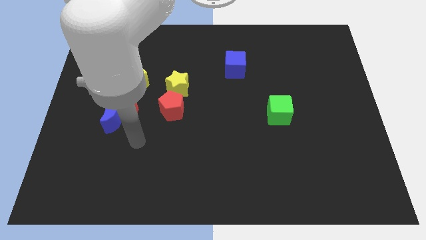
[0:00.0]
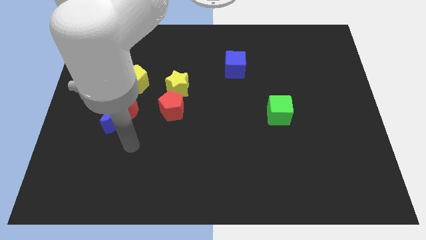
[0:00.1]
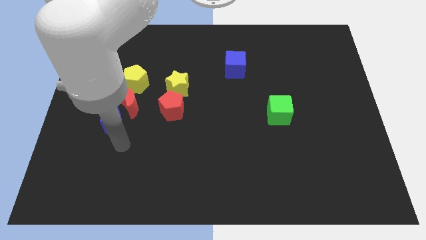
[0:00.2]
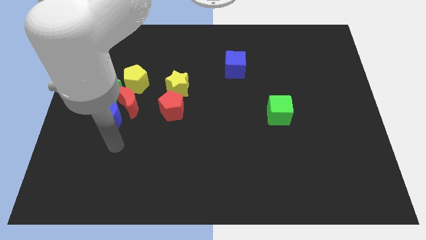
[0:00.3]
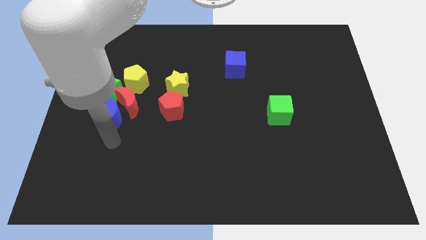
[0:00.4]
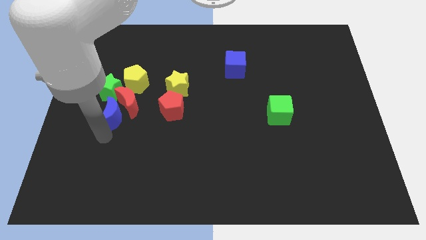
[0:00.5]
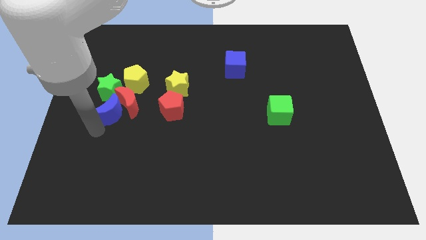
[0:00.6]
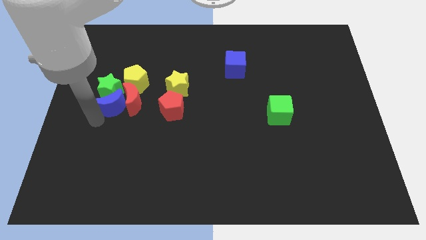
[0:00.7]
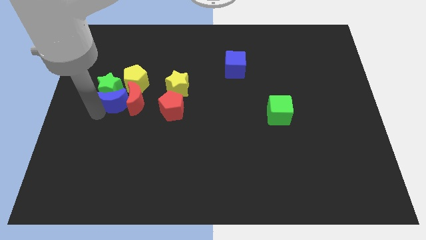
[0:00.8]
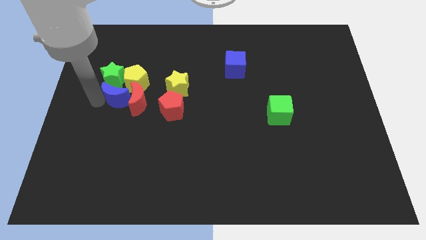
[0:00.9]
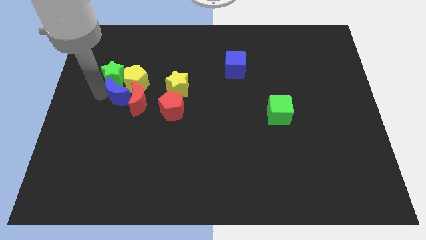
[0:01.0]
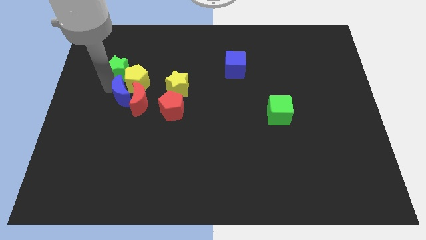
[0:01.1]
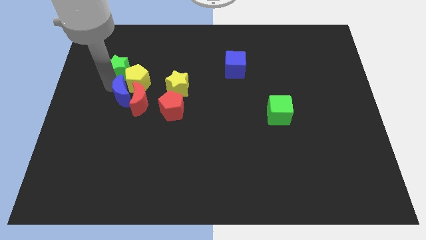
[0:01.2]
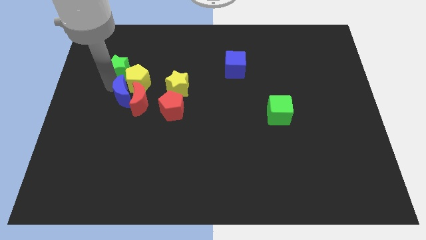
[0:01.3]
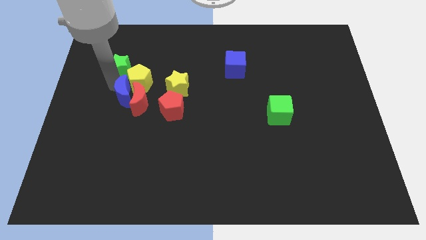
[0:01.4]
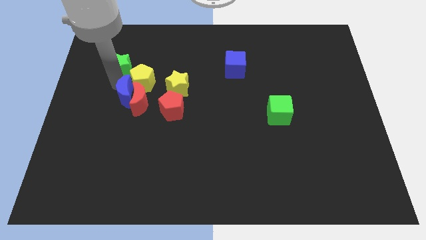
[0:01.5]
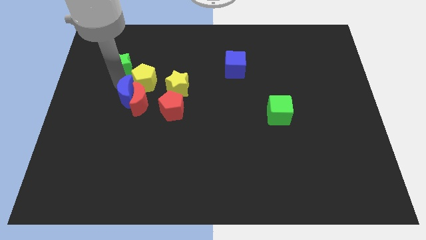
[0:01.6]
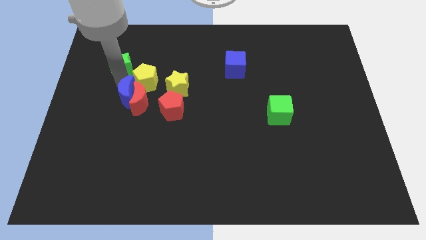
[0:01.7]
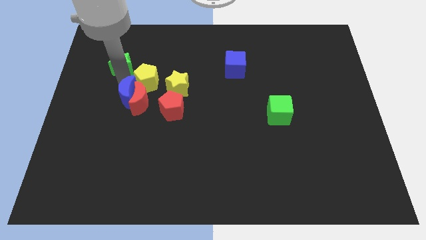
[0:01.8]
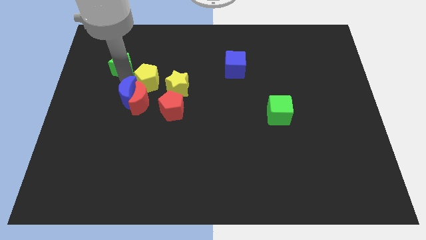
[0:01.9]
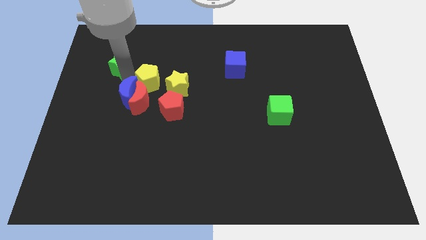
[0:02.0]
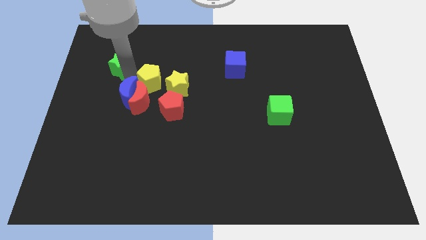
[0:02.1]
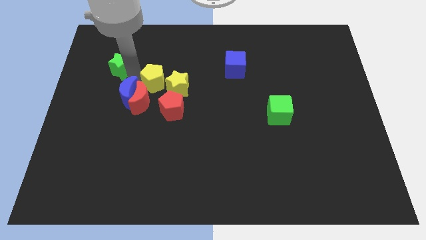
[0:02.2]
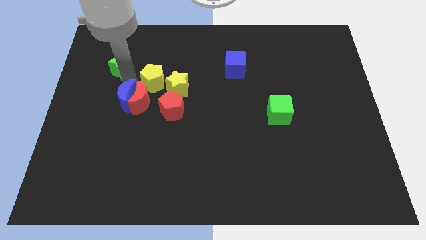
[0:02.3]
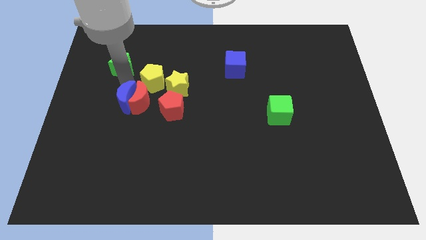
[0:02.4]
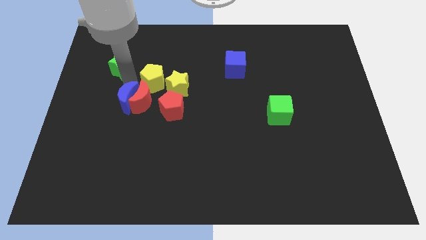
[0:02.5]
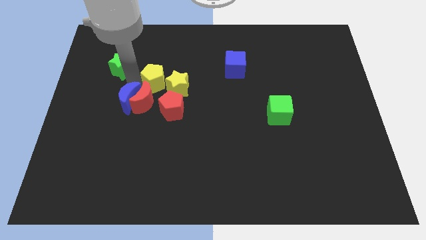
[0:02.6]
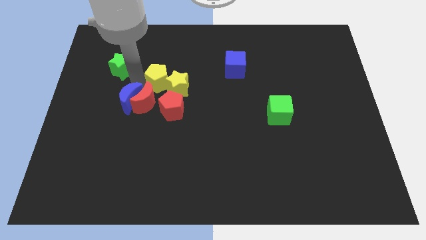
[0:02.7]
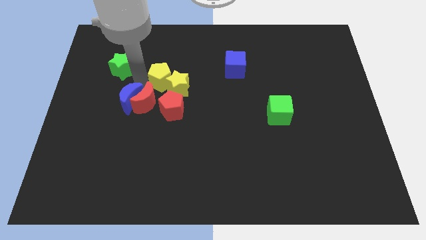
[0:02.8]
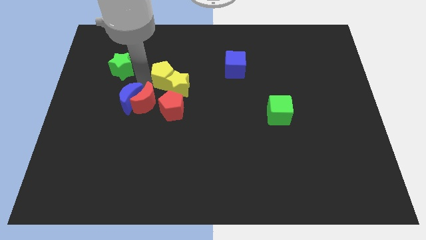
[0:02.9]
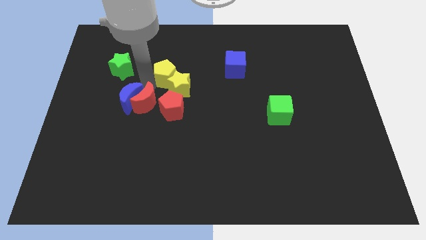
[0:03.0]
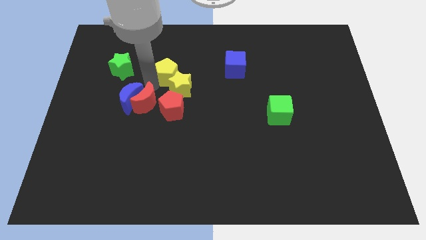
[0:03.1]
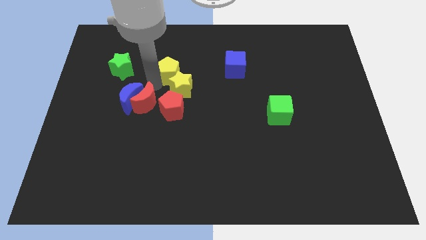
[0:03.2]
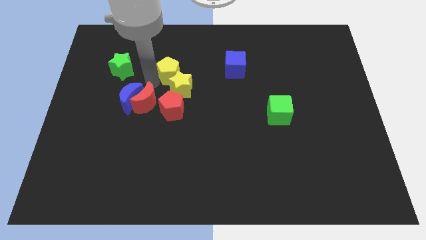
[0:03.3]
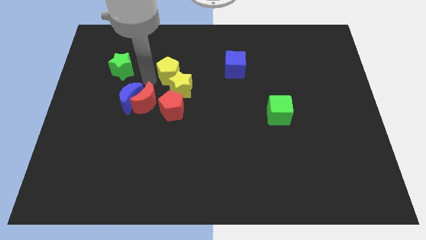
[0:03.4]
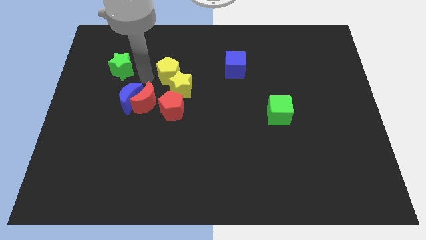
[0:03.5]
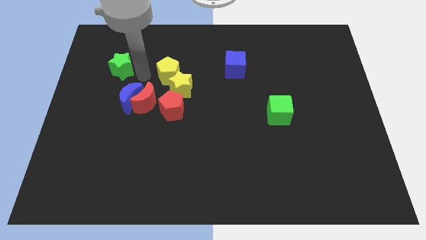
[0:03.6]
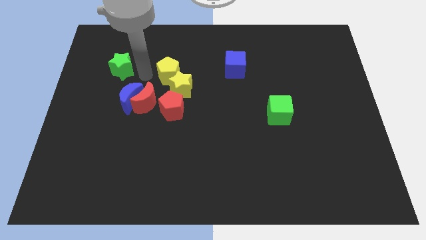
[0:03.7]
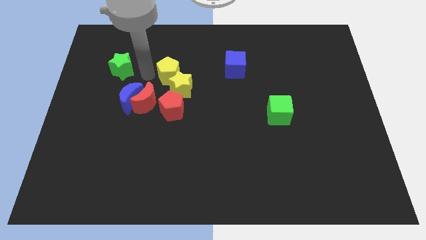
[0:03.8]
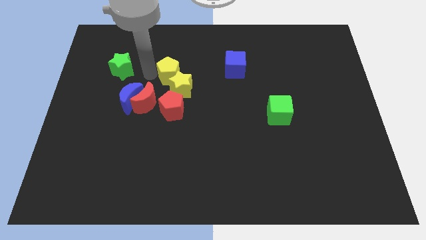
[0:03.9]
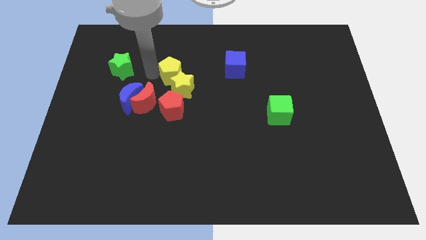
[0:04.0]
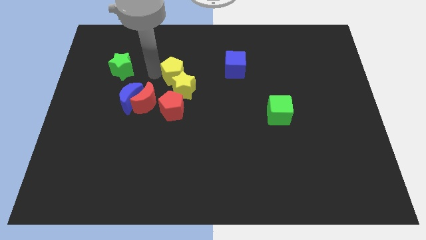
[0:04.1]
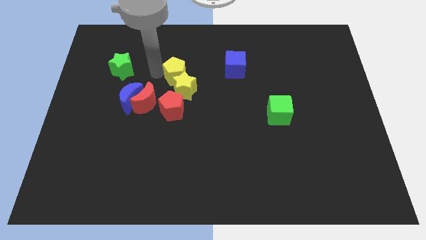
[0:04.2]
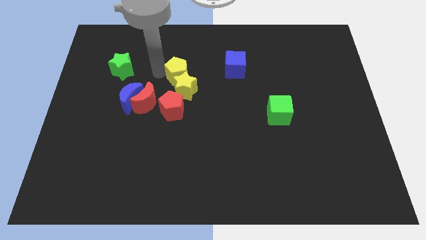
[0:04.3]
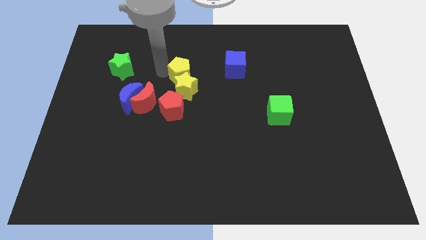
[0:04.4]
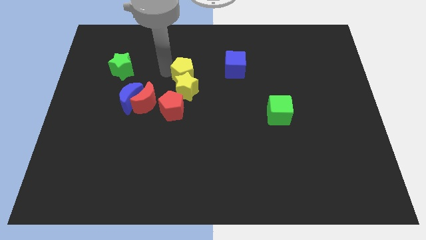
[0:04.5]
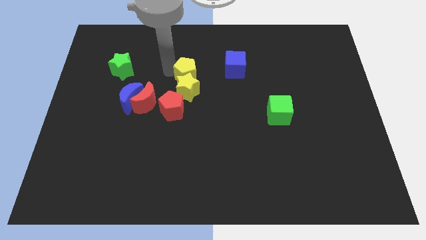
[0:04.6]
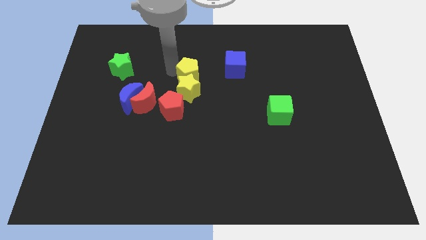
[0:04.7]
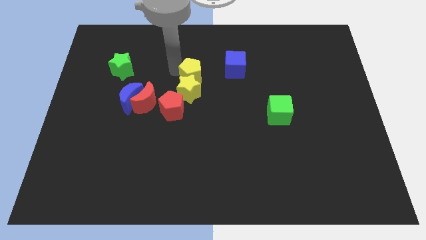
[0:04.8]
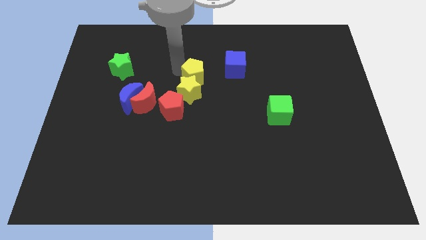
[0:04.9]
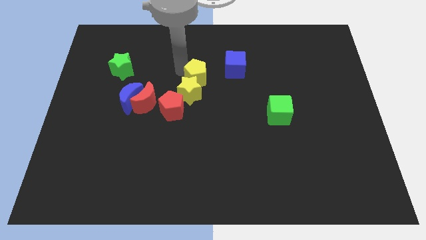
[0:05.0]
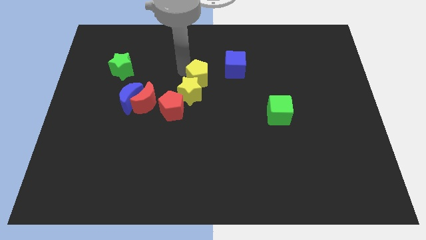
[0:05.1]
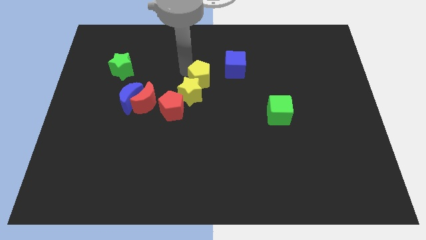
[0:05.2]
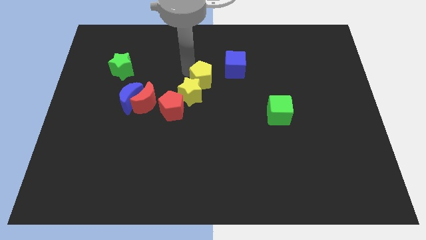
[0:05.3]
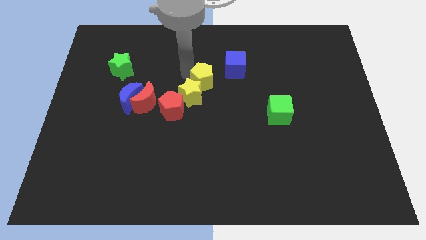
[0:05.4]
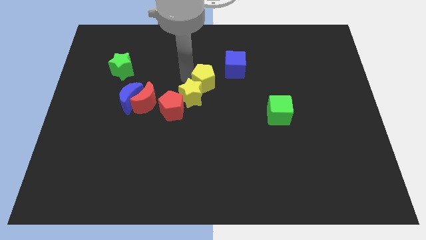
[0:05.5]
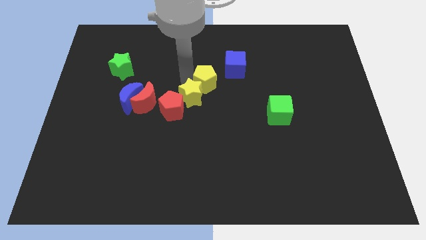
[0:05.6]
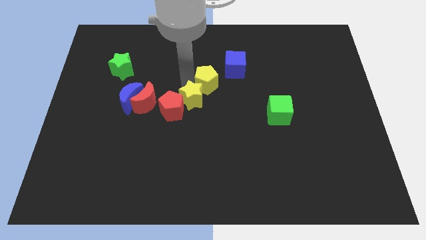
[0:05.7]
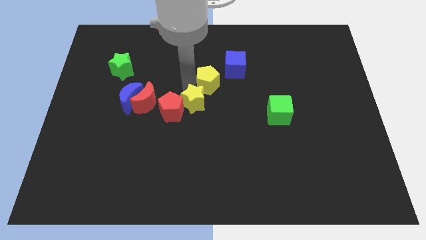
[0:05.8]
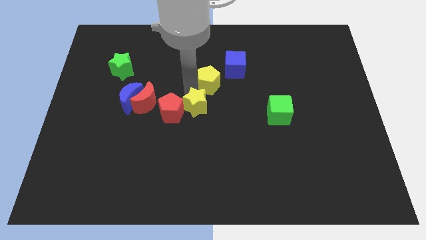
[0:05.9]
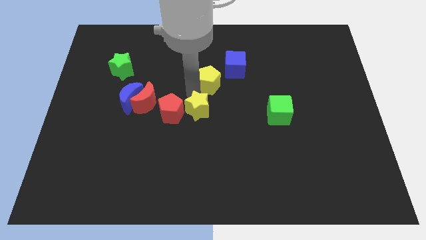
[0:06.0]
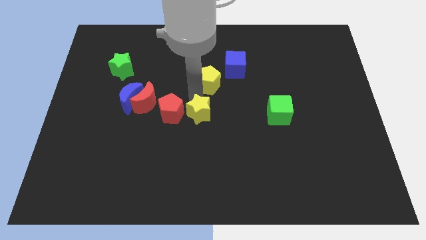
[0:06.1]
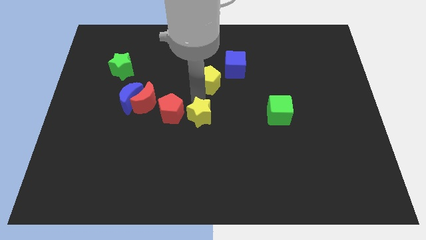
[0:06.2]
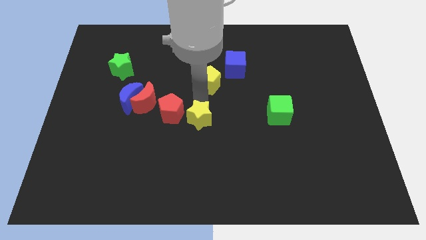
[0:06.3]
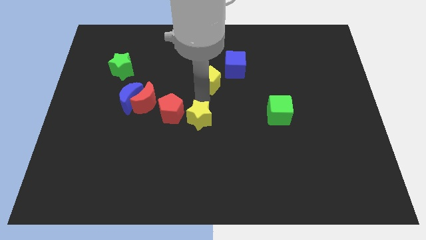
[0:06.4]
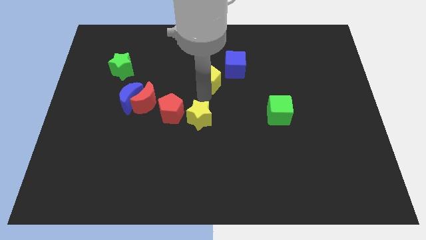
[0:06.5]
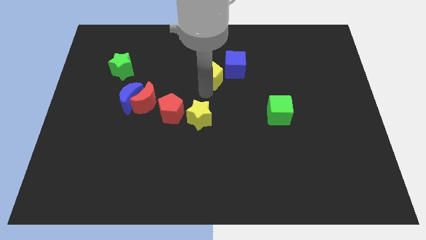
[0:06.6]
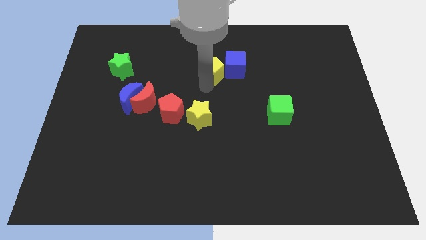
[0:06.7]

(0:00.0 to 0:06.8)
move the yellow pentagon next to the blue cube

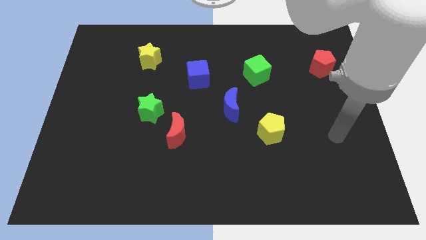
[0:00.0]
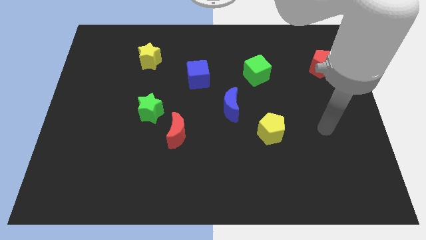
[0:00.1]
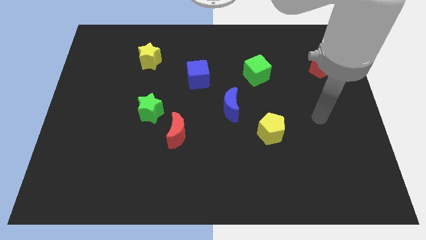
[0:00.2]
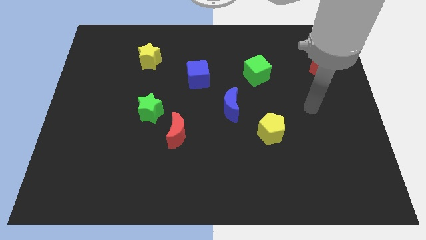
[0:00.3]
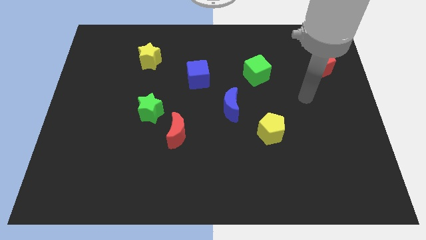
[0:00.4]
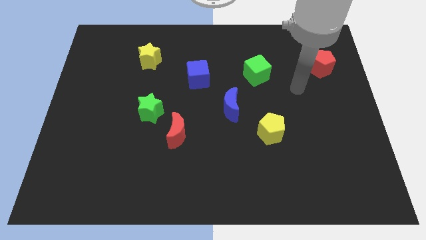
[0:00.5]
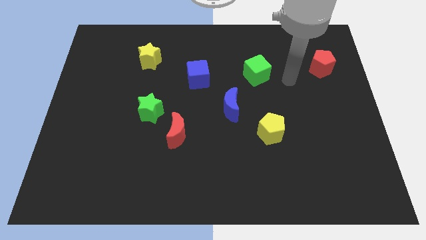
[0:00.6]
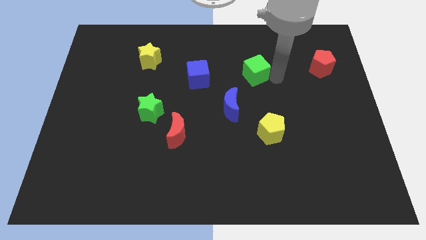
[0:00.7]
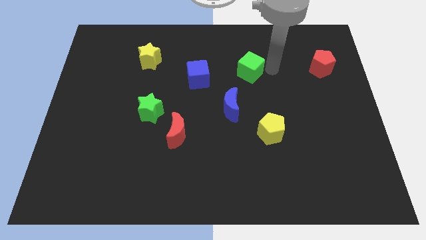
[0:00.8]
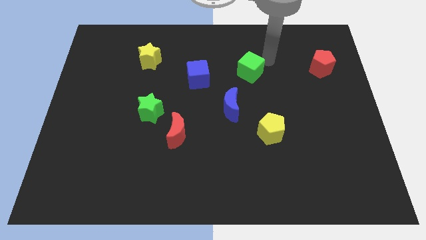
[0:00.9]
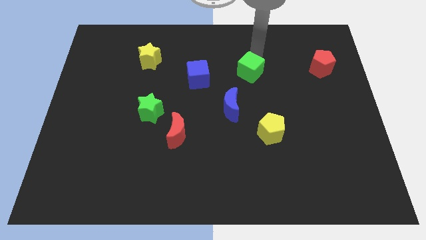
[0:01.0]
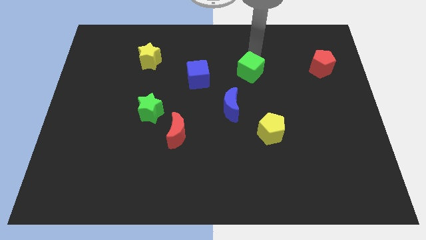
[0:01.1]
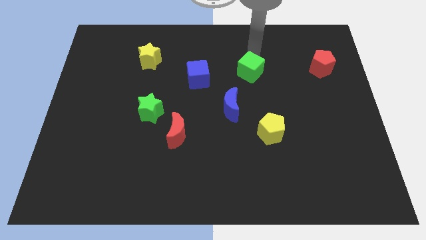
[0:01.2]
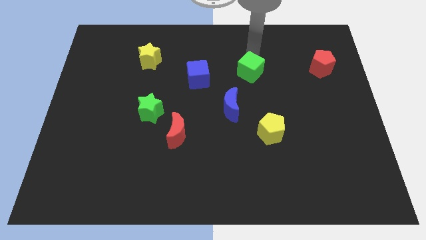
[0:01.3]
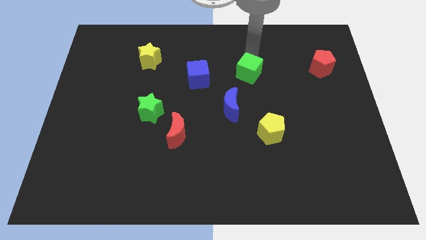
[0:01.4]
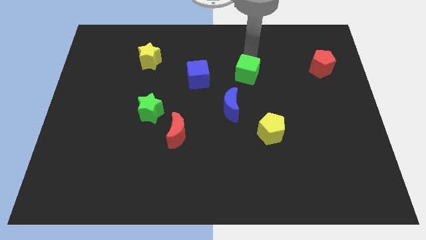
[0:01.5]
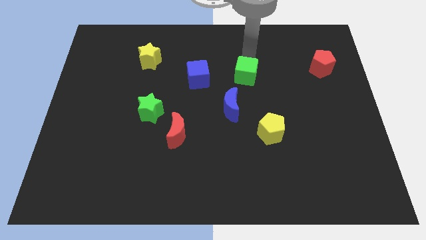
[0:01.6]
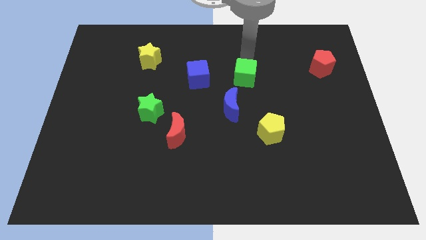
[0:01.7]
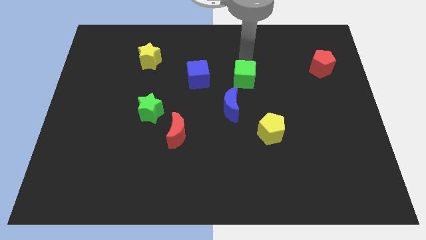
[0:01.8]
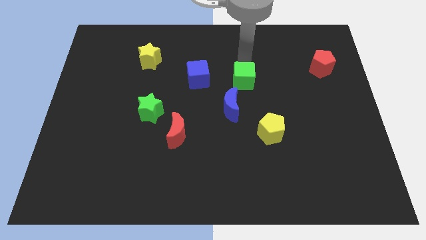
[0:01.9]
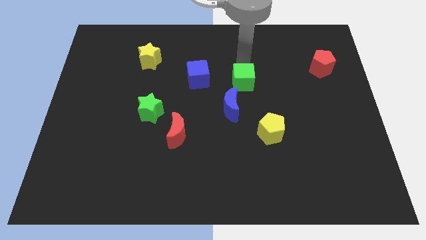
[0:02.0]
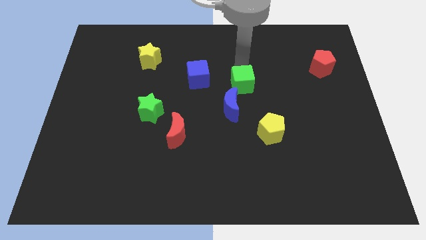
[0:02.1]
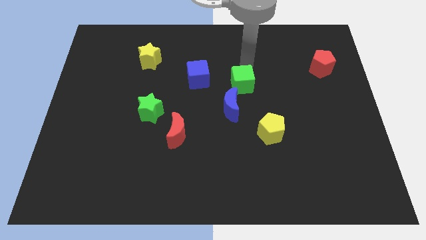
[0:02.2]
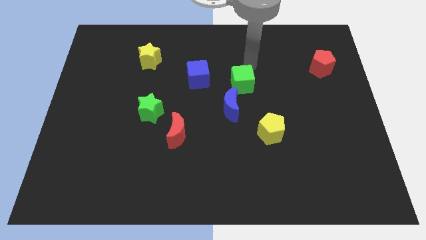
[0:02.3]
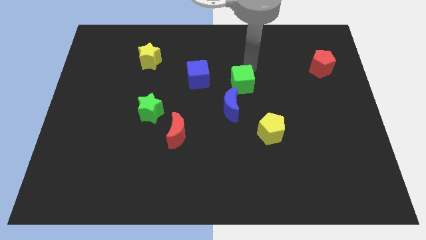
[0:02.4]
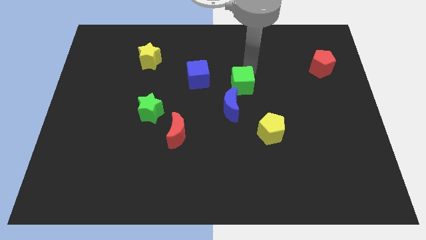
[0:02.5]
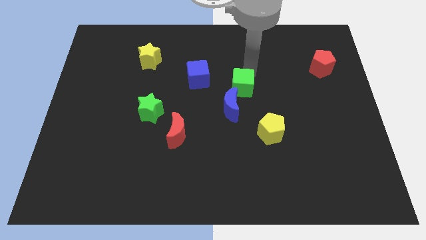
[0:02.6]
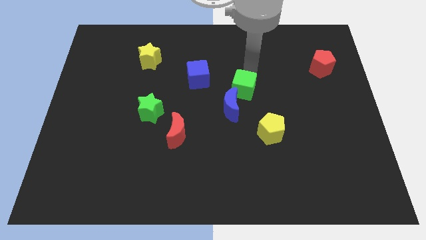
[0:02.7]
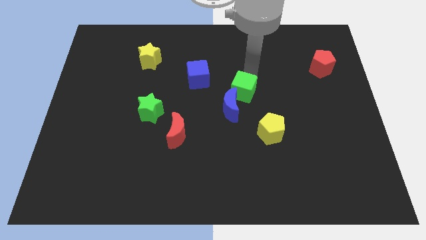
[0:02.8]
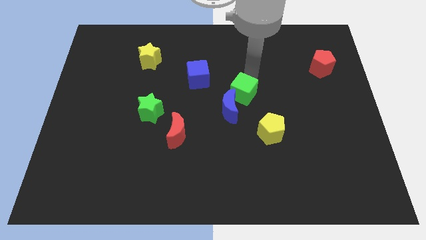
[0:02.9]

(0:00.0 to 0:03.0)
put the green cube next to the blue moon
